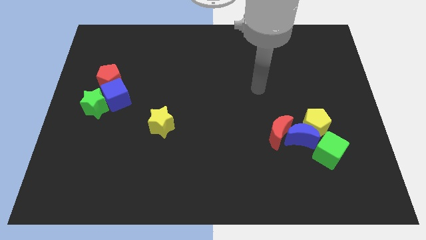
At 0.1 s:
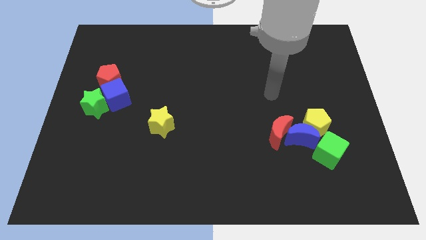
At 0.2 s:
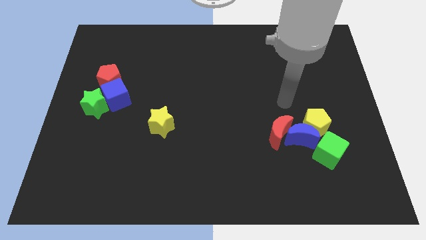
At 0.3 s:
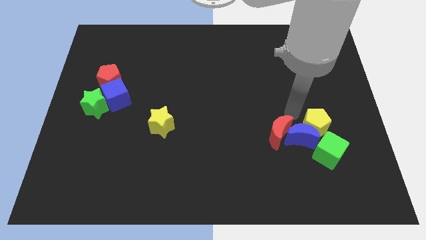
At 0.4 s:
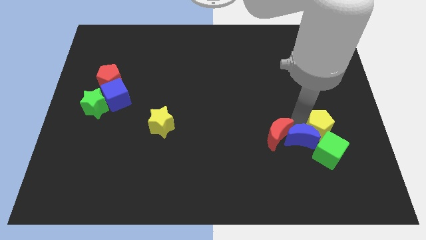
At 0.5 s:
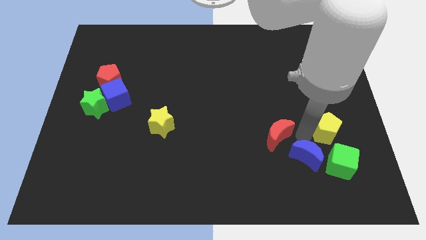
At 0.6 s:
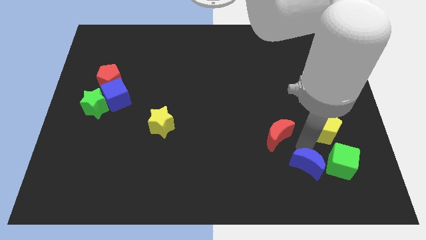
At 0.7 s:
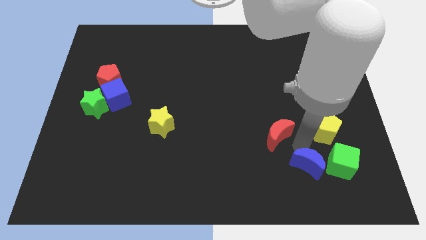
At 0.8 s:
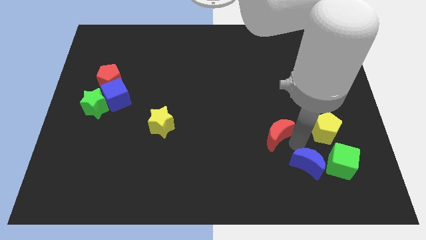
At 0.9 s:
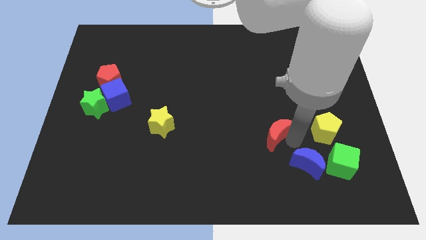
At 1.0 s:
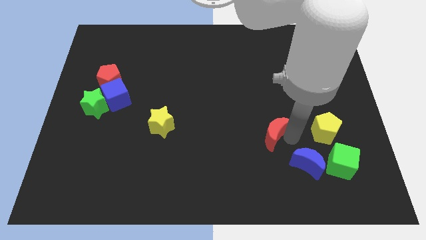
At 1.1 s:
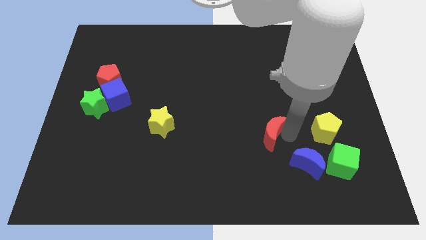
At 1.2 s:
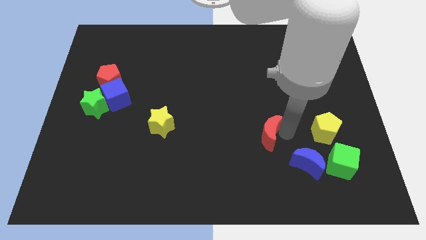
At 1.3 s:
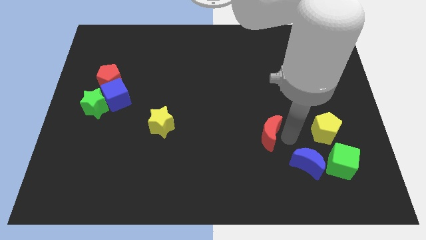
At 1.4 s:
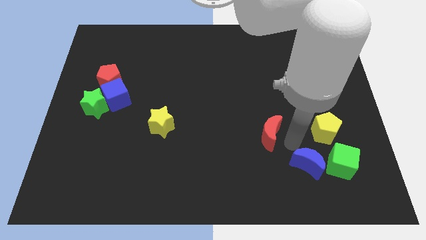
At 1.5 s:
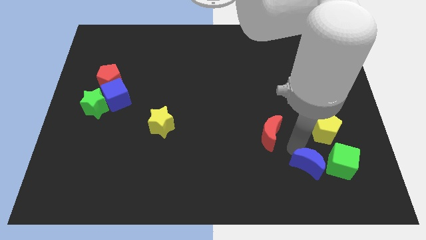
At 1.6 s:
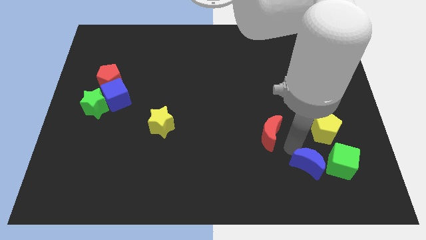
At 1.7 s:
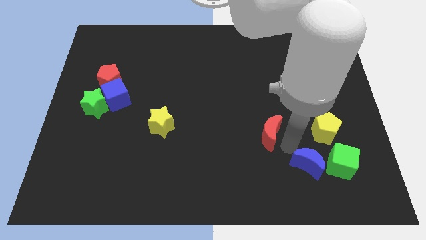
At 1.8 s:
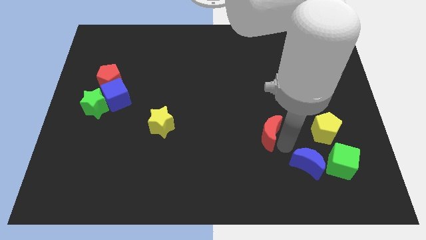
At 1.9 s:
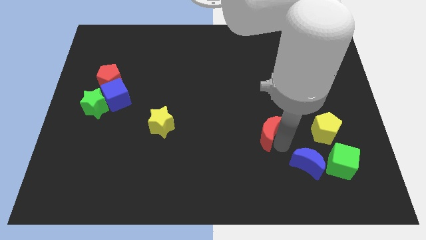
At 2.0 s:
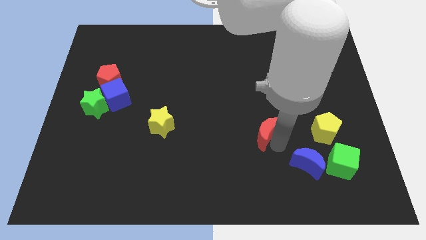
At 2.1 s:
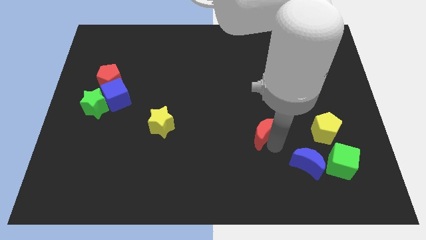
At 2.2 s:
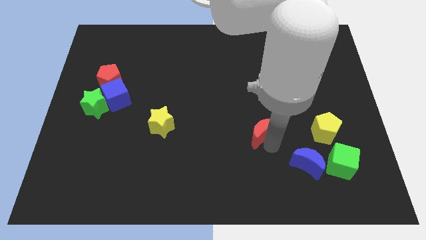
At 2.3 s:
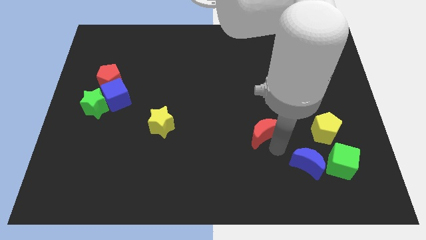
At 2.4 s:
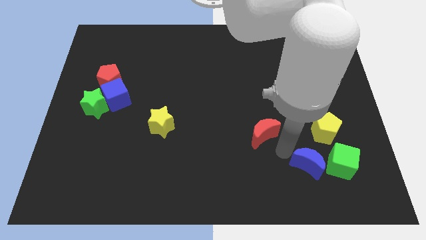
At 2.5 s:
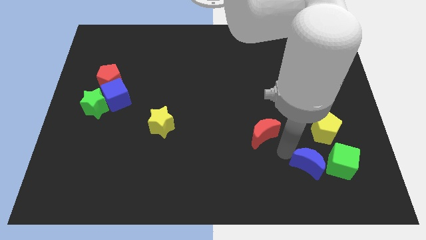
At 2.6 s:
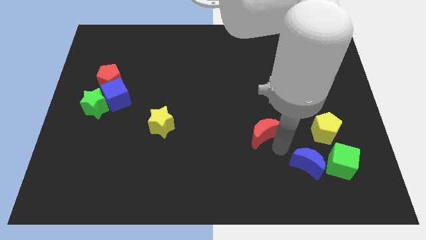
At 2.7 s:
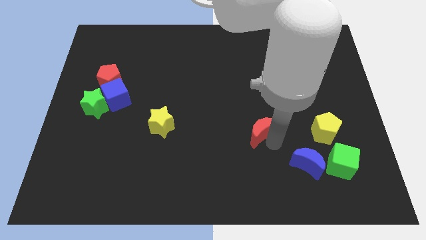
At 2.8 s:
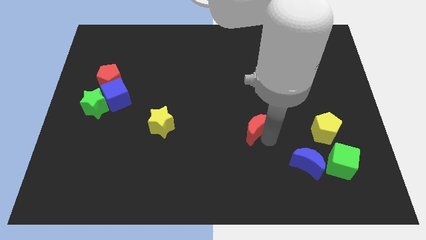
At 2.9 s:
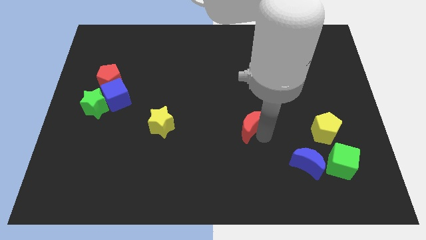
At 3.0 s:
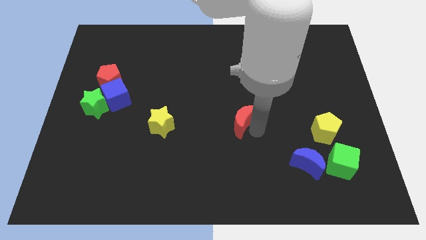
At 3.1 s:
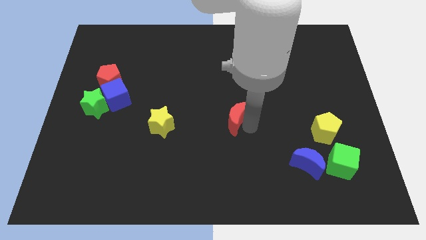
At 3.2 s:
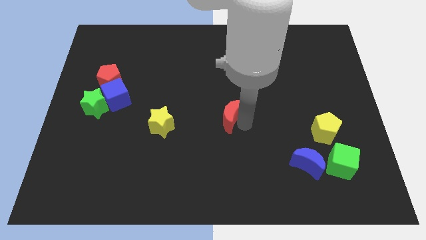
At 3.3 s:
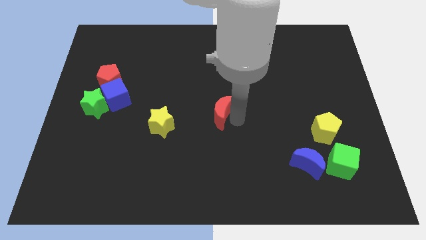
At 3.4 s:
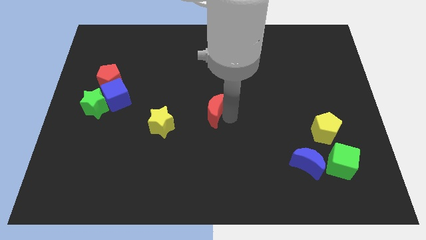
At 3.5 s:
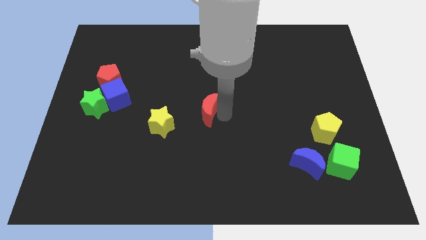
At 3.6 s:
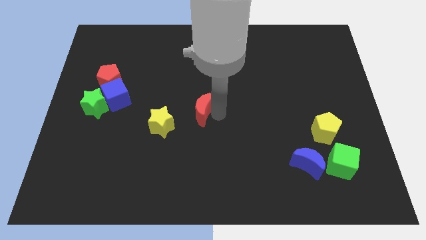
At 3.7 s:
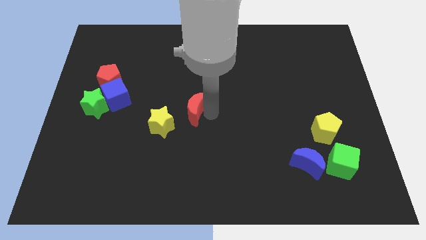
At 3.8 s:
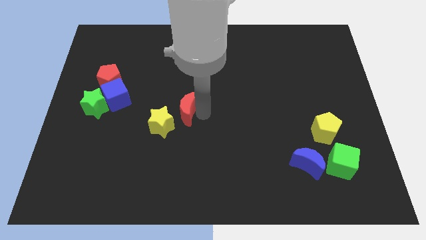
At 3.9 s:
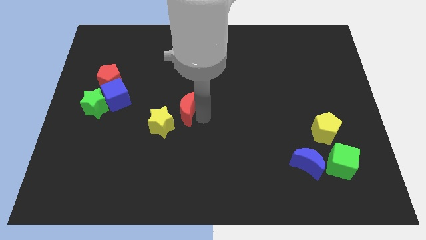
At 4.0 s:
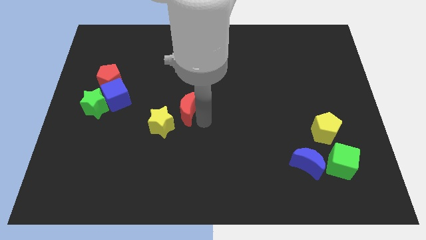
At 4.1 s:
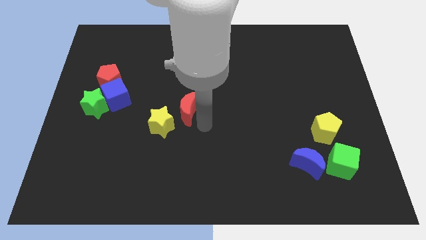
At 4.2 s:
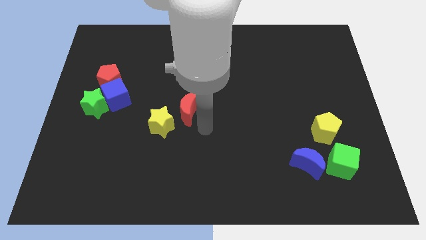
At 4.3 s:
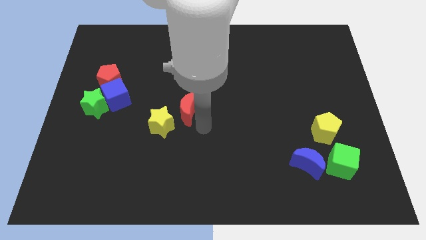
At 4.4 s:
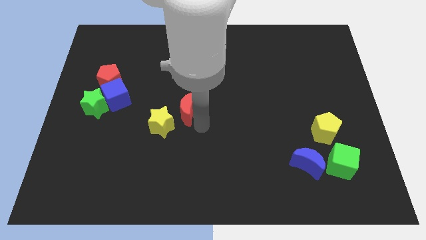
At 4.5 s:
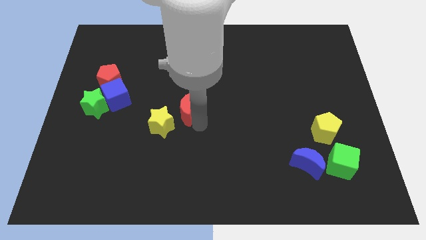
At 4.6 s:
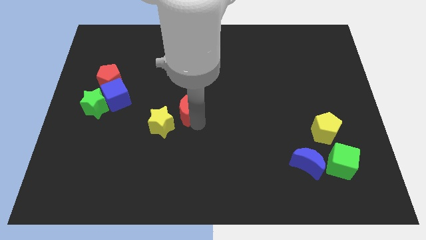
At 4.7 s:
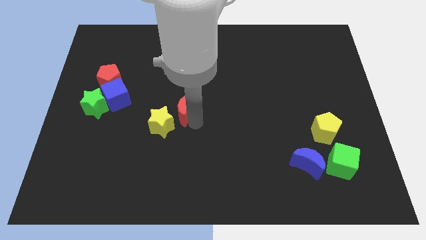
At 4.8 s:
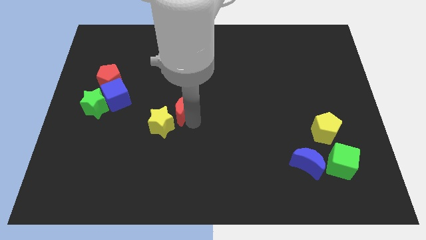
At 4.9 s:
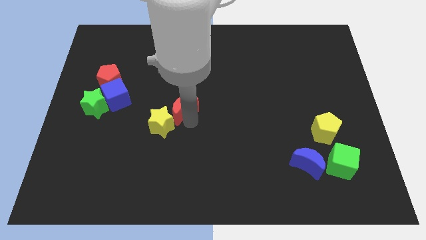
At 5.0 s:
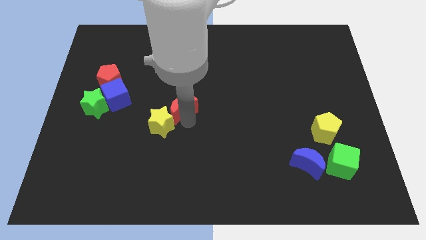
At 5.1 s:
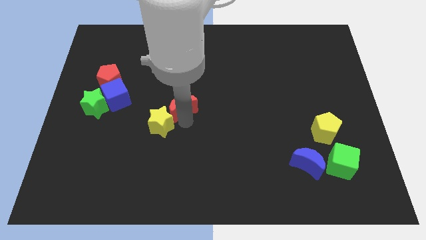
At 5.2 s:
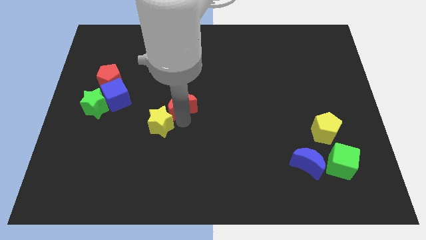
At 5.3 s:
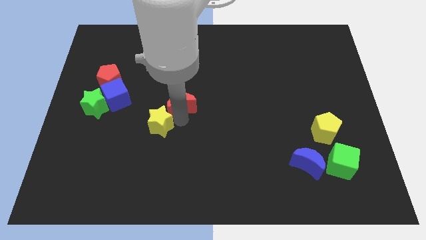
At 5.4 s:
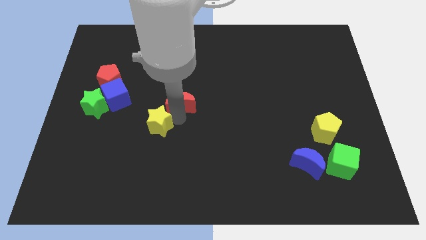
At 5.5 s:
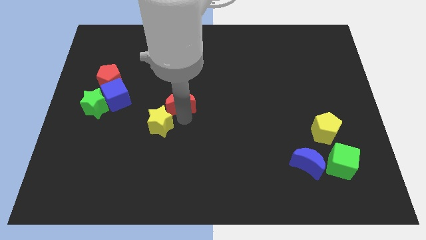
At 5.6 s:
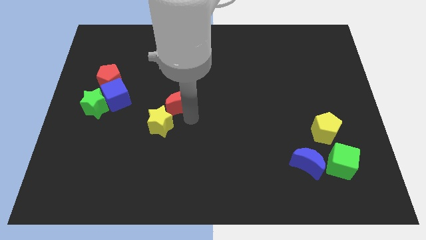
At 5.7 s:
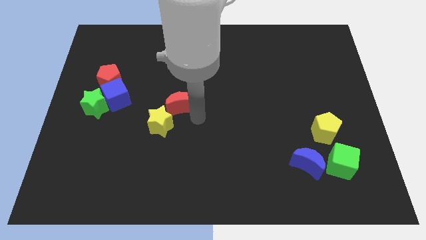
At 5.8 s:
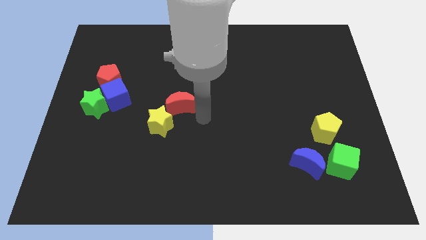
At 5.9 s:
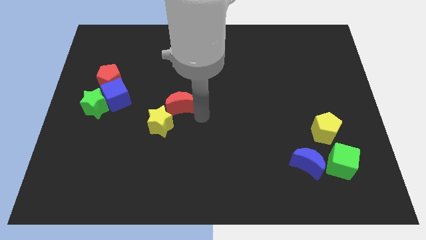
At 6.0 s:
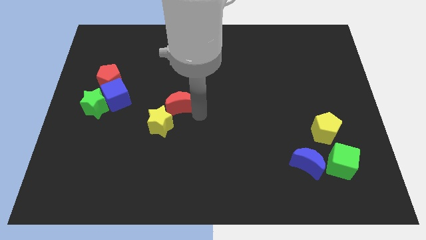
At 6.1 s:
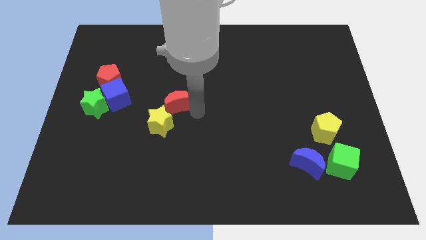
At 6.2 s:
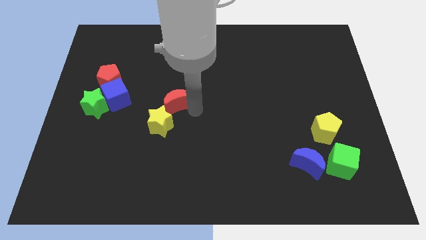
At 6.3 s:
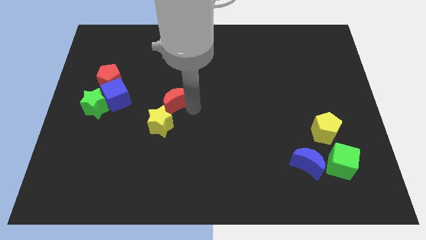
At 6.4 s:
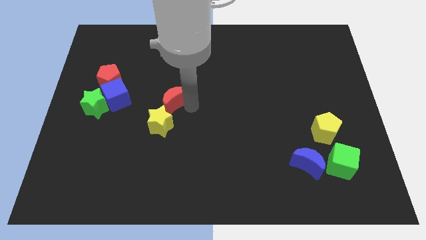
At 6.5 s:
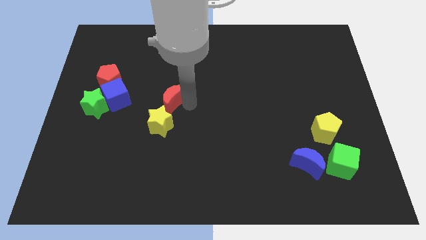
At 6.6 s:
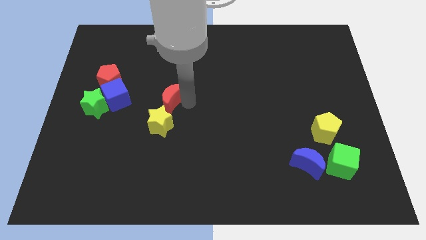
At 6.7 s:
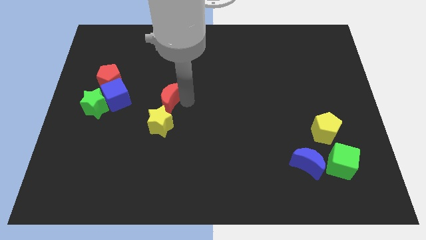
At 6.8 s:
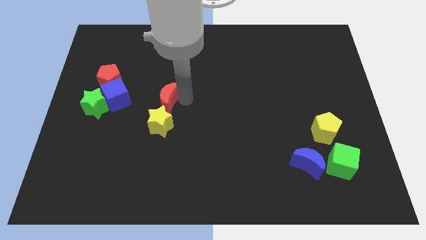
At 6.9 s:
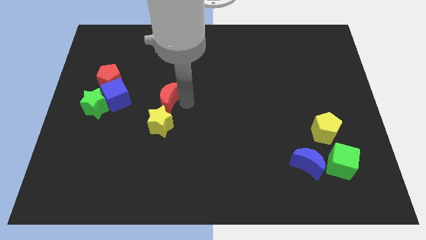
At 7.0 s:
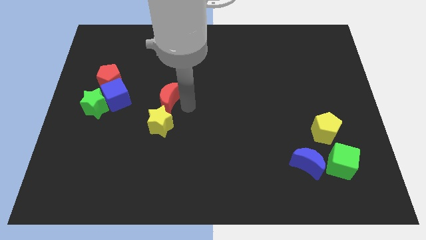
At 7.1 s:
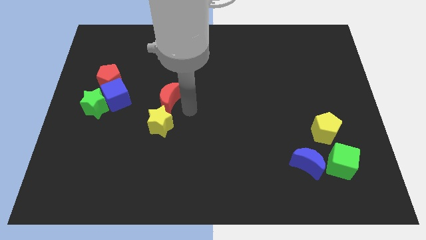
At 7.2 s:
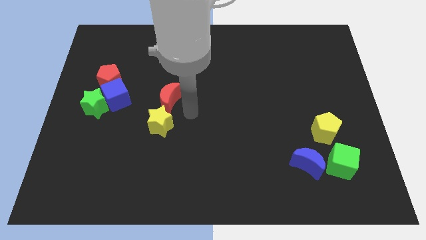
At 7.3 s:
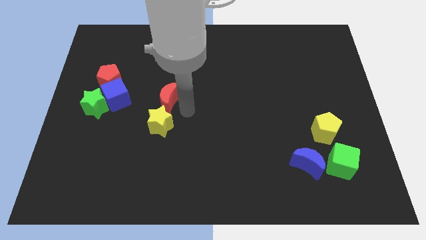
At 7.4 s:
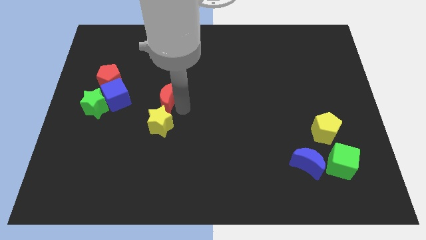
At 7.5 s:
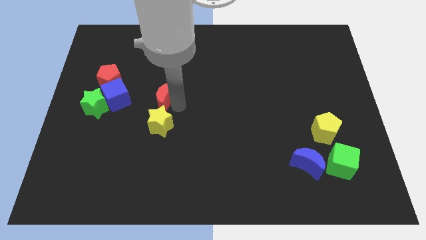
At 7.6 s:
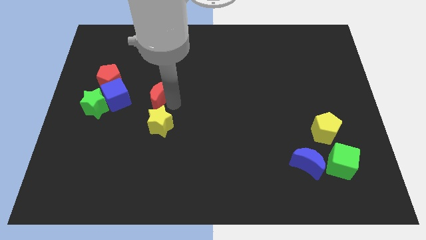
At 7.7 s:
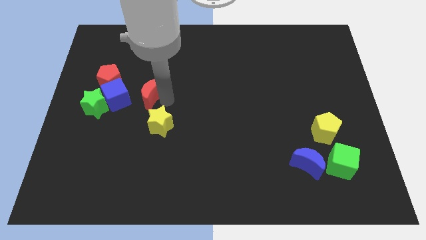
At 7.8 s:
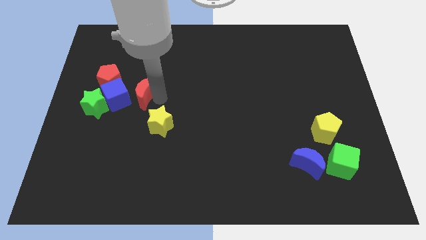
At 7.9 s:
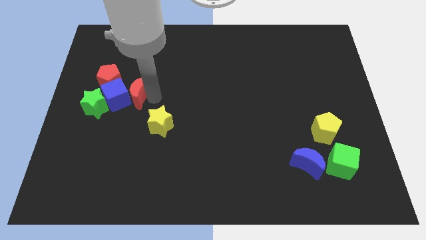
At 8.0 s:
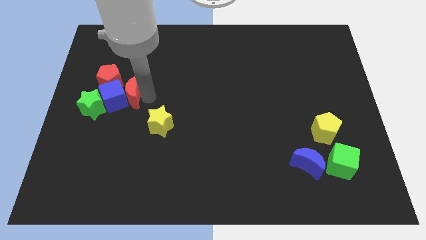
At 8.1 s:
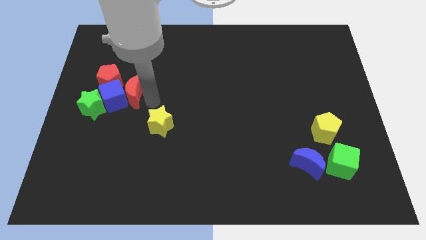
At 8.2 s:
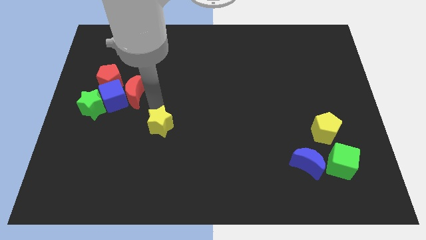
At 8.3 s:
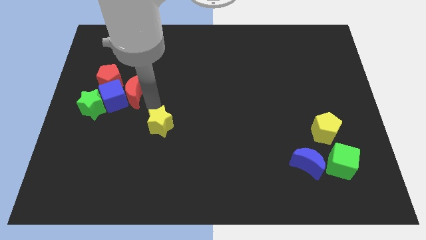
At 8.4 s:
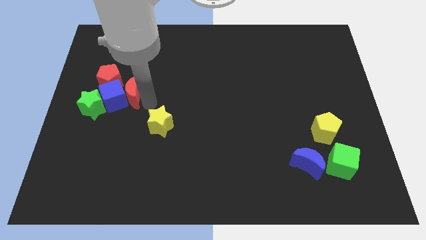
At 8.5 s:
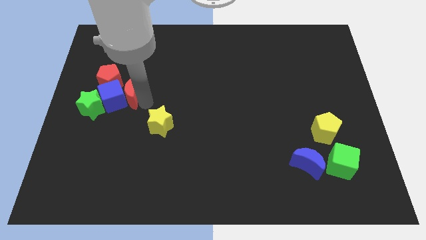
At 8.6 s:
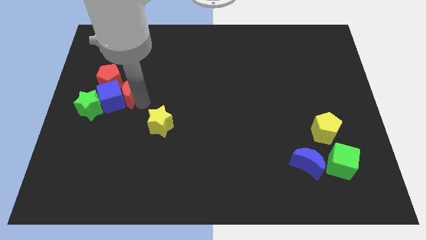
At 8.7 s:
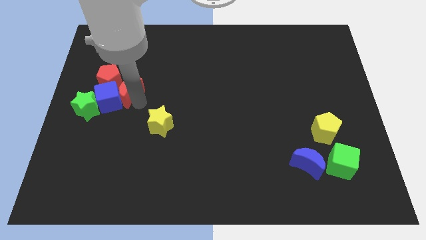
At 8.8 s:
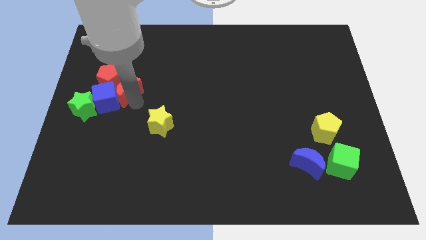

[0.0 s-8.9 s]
slide the red moon towards the red pentagon
